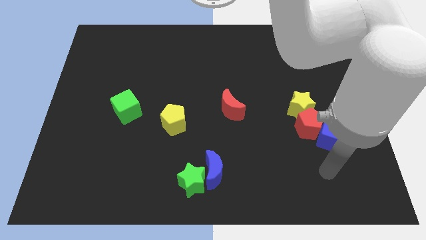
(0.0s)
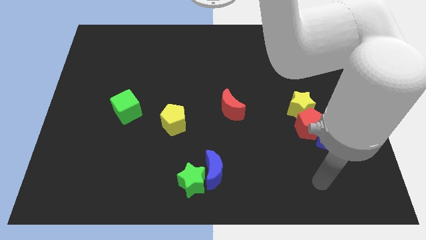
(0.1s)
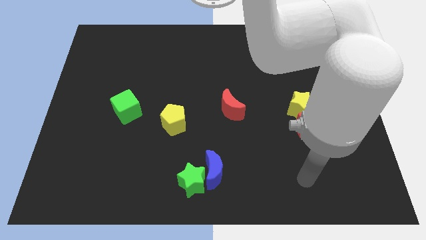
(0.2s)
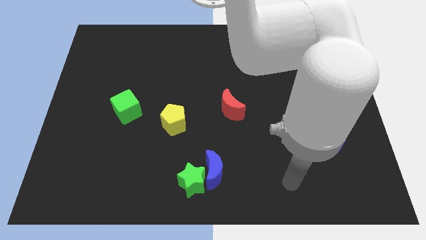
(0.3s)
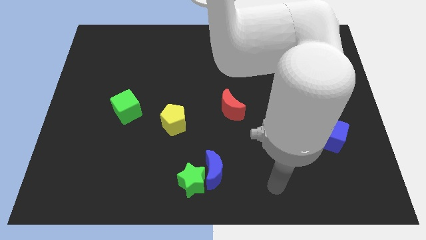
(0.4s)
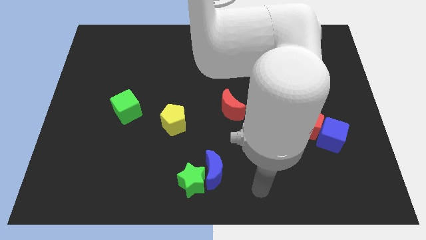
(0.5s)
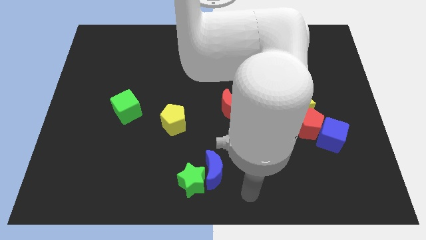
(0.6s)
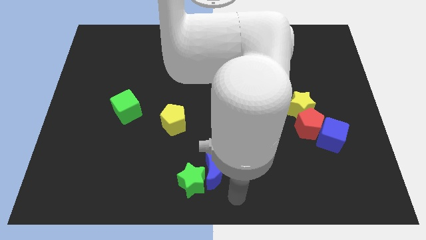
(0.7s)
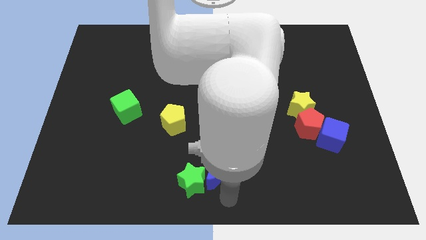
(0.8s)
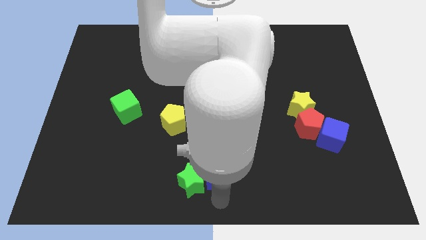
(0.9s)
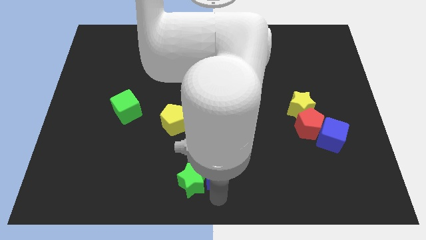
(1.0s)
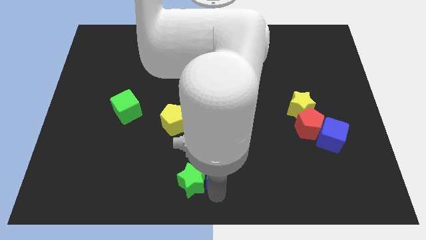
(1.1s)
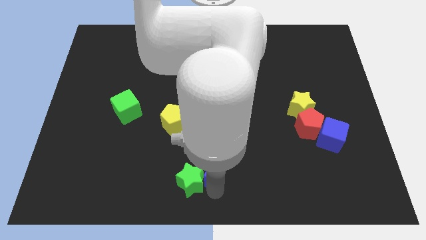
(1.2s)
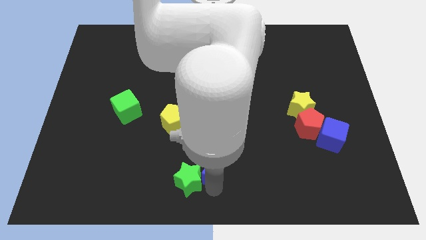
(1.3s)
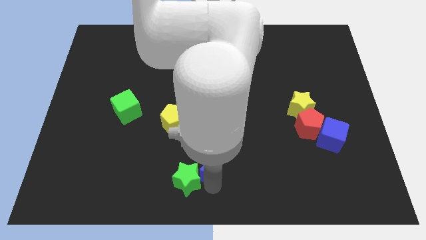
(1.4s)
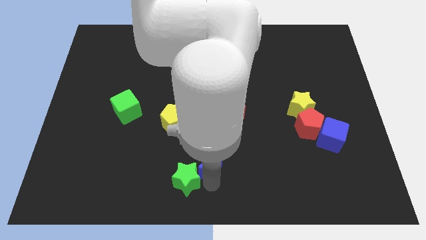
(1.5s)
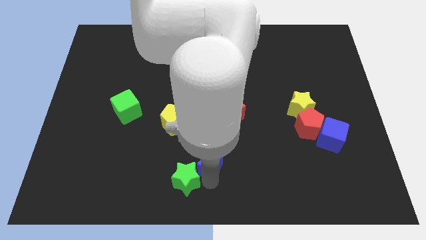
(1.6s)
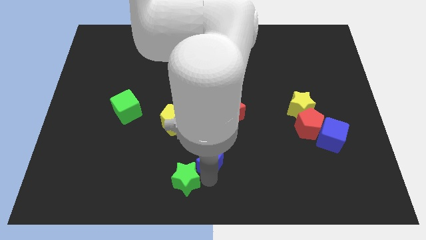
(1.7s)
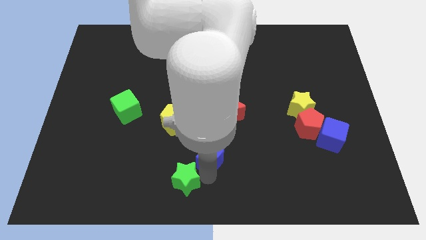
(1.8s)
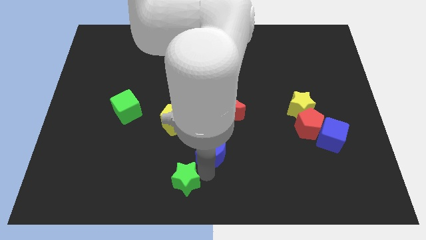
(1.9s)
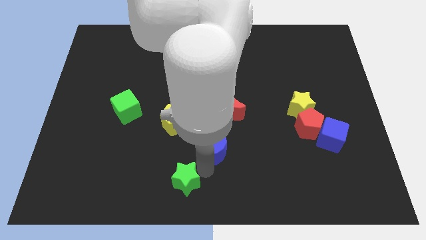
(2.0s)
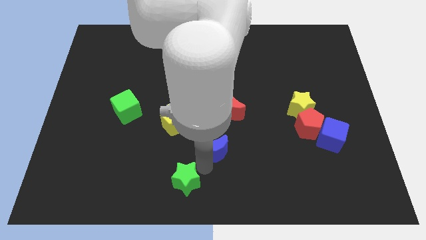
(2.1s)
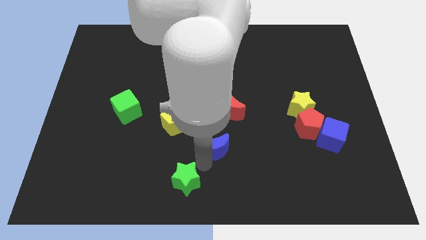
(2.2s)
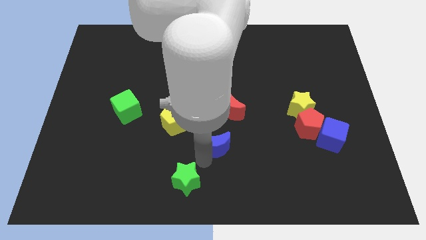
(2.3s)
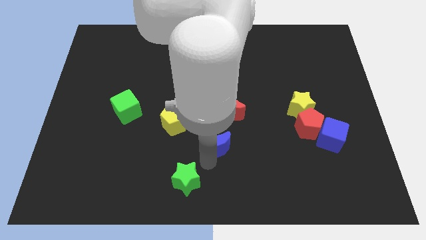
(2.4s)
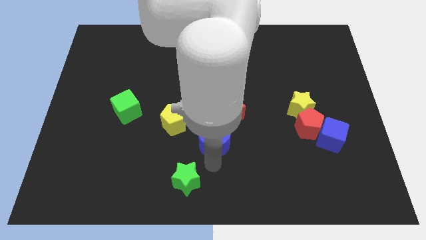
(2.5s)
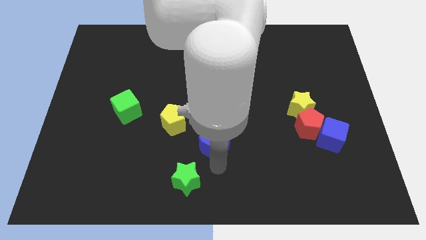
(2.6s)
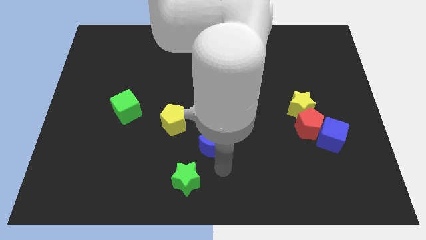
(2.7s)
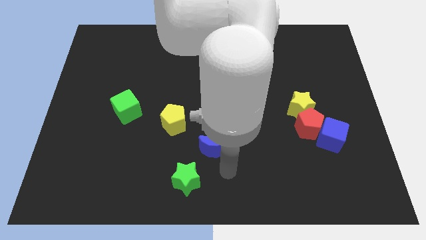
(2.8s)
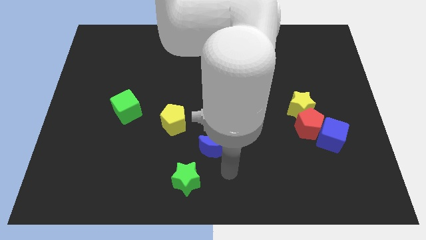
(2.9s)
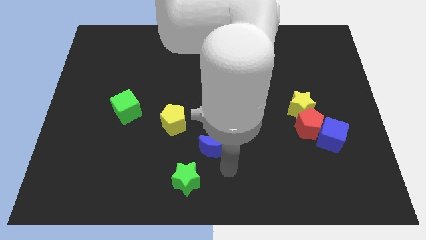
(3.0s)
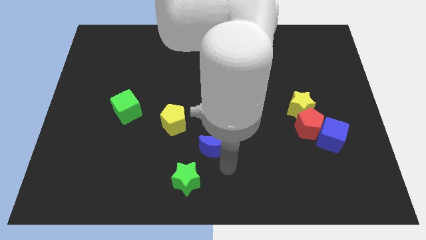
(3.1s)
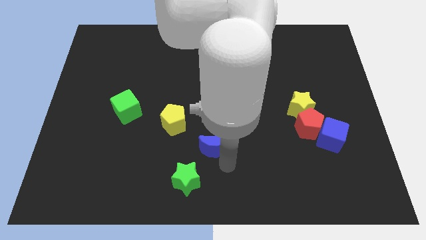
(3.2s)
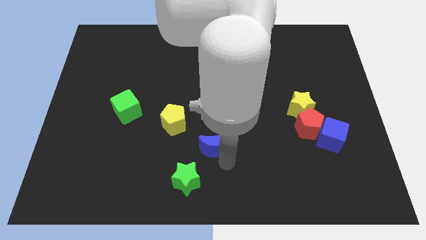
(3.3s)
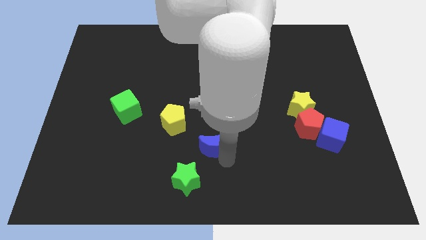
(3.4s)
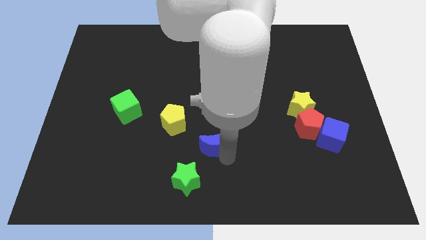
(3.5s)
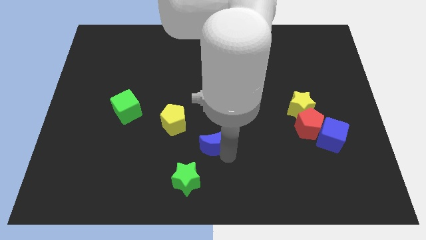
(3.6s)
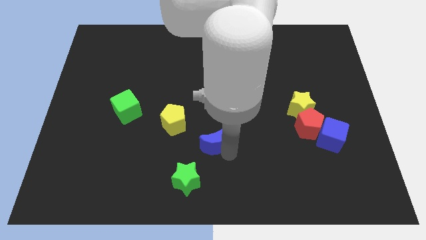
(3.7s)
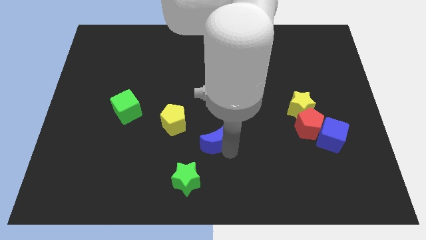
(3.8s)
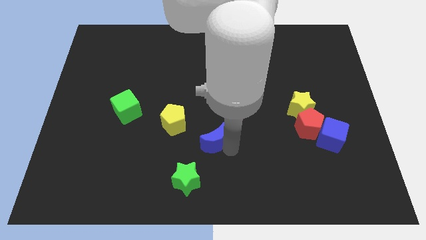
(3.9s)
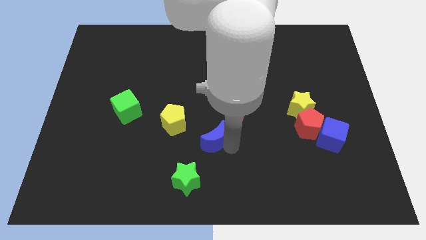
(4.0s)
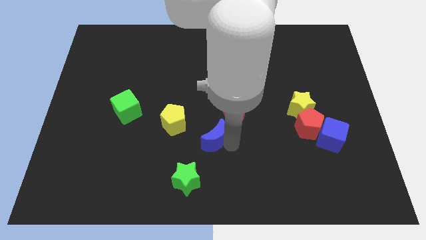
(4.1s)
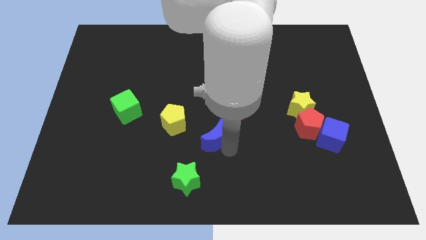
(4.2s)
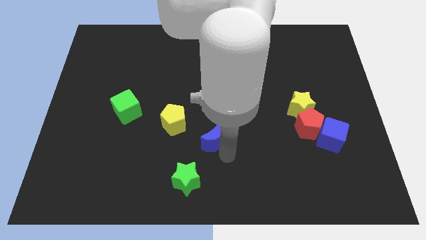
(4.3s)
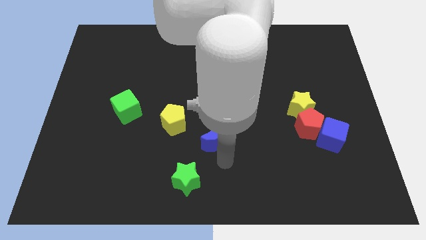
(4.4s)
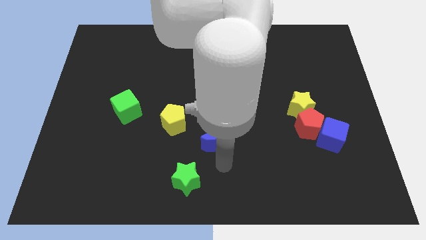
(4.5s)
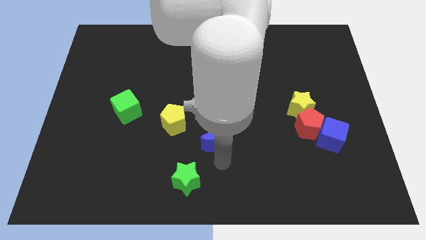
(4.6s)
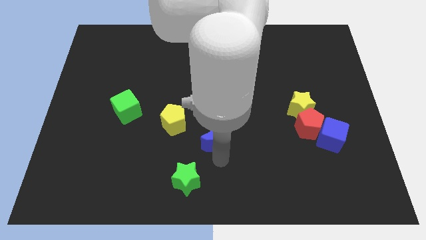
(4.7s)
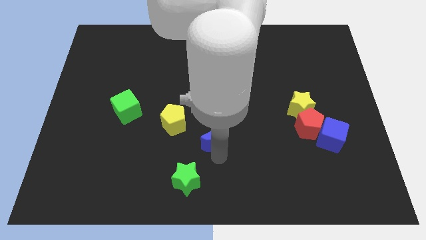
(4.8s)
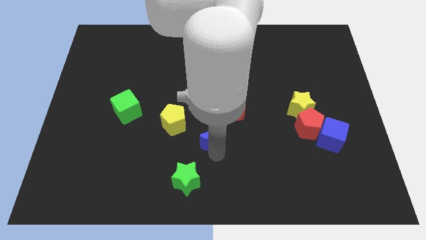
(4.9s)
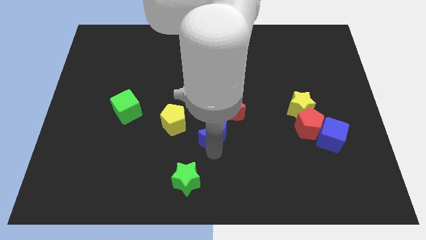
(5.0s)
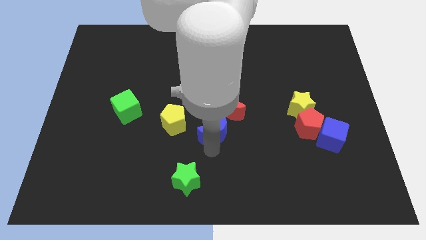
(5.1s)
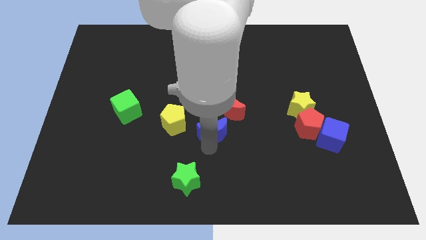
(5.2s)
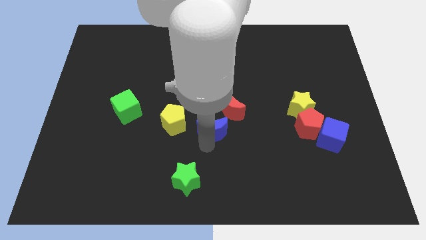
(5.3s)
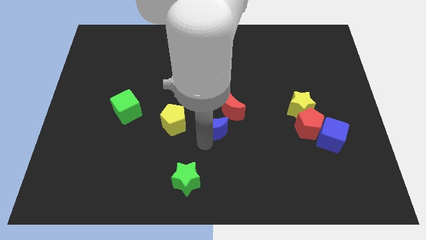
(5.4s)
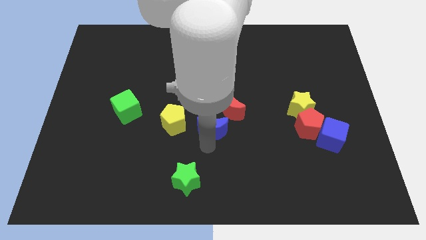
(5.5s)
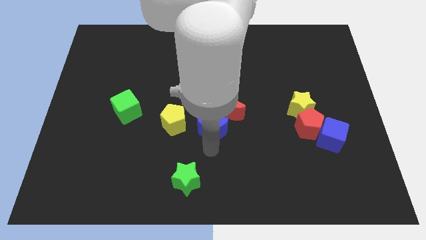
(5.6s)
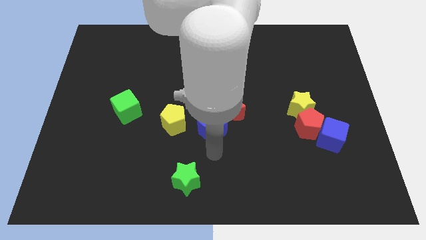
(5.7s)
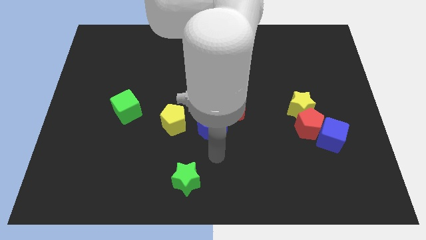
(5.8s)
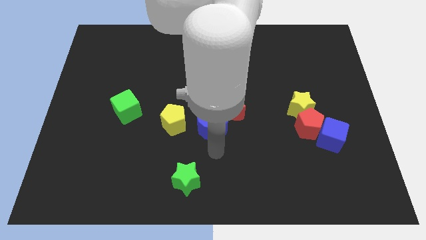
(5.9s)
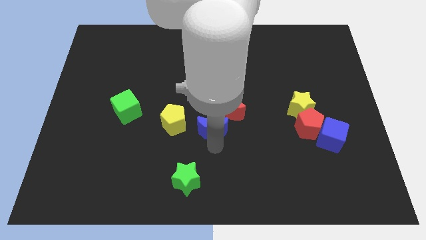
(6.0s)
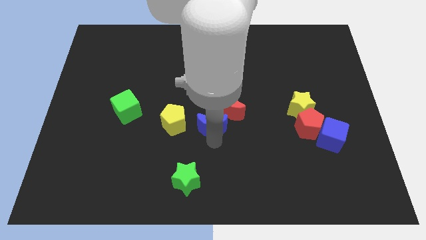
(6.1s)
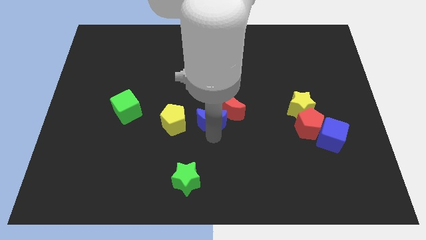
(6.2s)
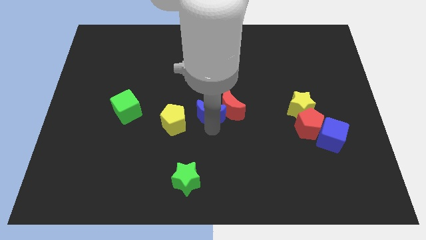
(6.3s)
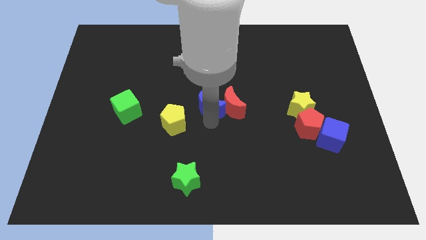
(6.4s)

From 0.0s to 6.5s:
move the blue moon to the top left of the red moon
